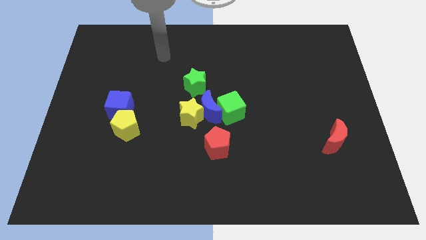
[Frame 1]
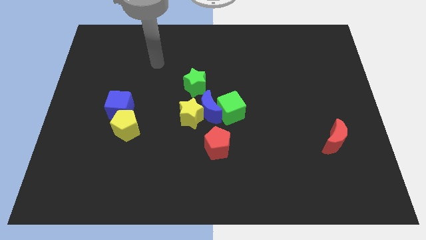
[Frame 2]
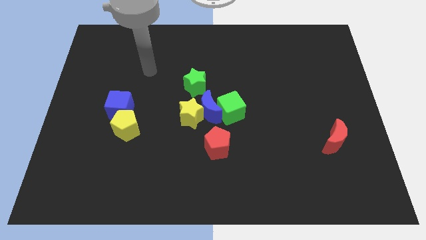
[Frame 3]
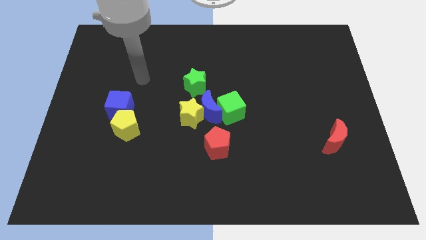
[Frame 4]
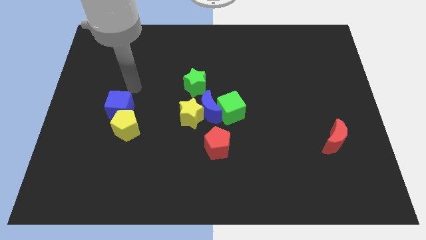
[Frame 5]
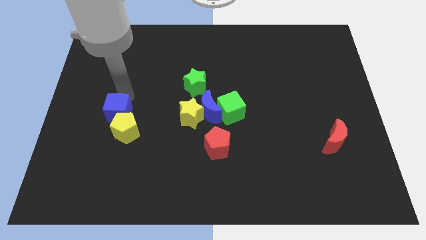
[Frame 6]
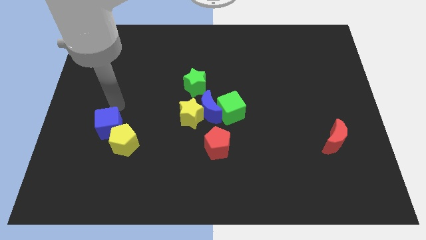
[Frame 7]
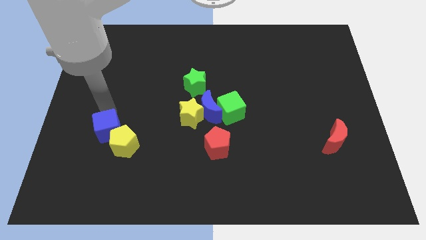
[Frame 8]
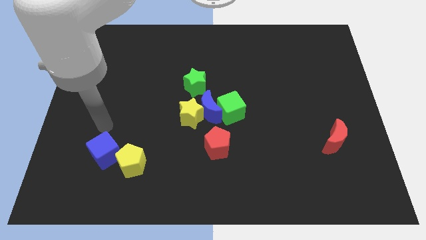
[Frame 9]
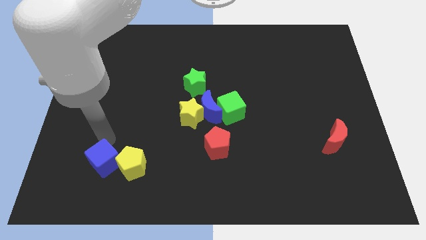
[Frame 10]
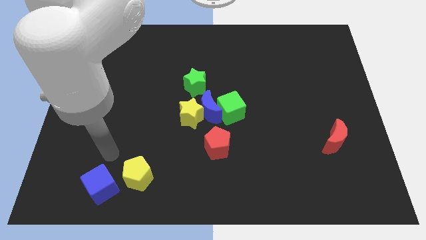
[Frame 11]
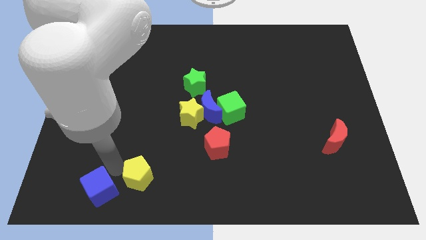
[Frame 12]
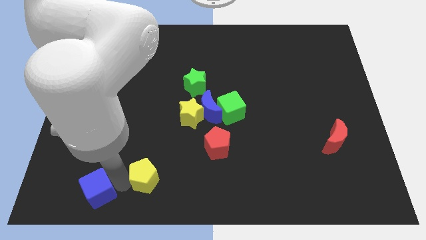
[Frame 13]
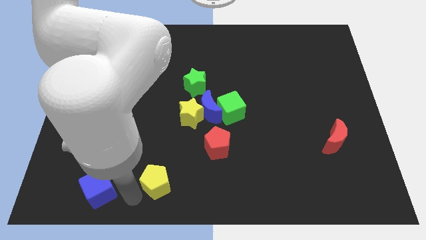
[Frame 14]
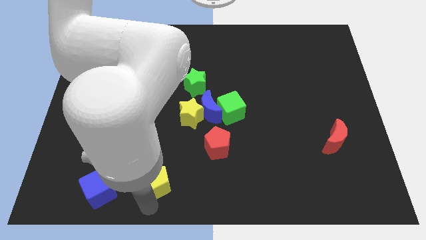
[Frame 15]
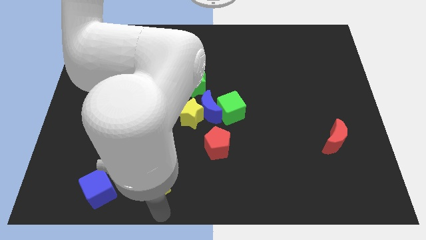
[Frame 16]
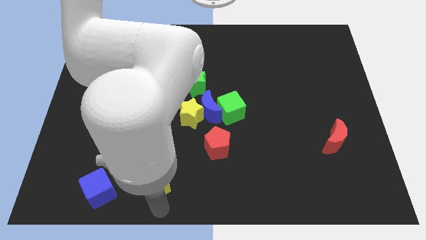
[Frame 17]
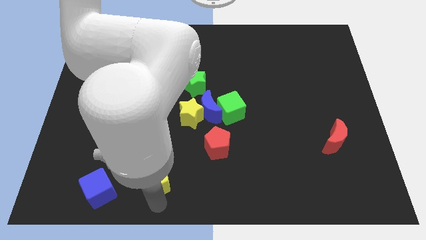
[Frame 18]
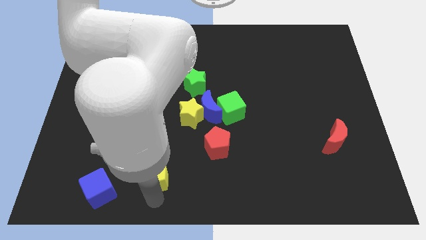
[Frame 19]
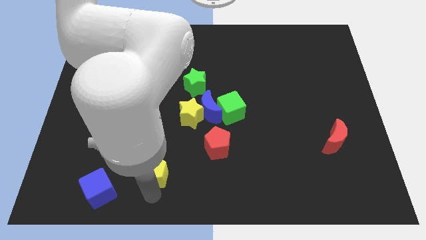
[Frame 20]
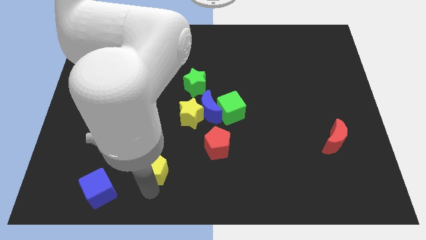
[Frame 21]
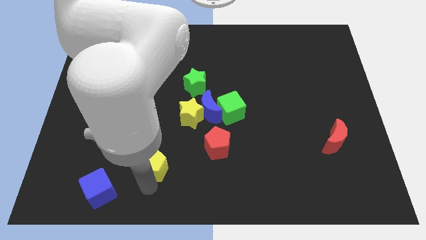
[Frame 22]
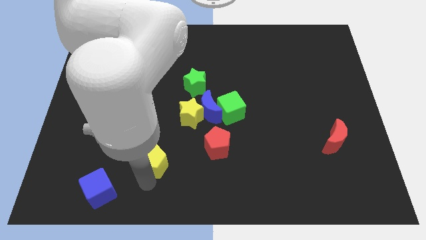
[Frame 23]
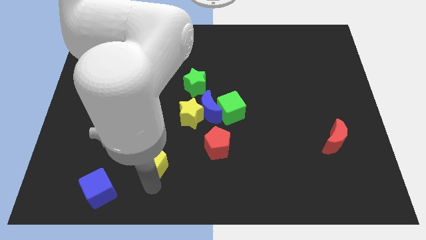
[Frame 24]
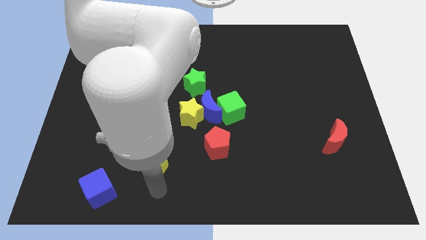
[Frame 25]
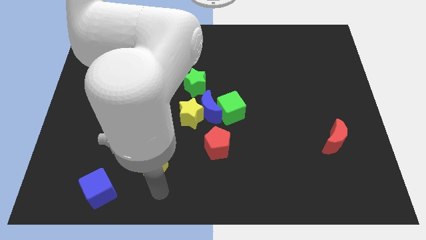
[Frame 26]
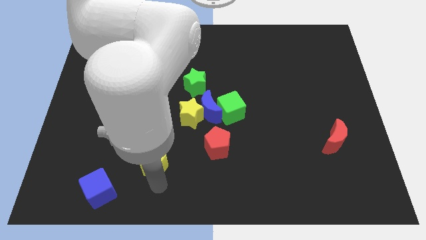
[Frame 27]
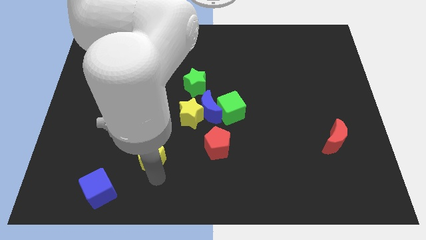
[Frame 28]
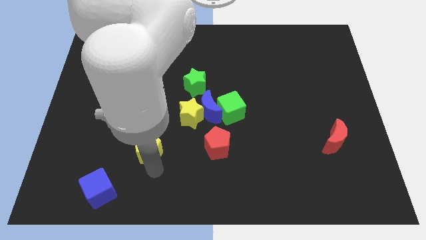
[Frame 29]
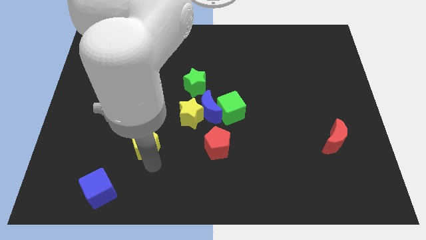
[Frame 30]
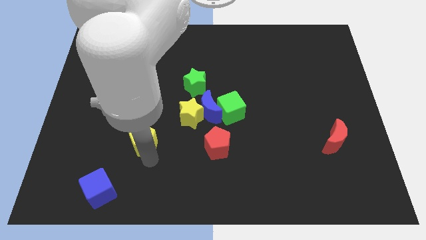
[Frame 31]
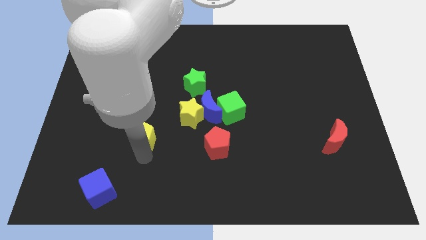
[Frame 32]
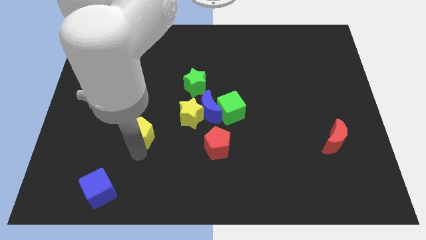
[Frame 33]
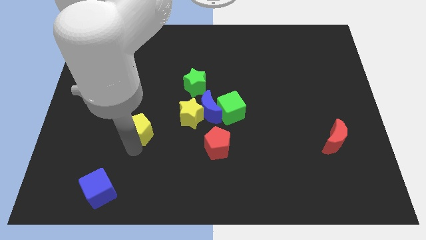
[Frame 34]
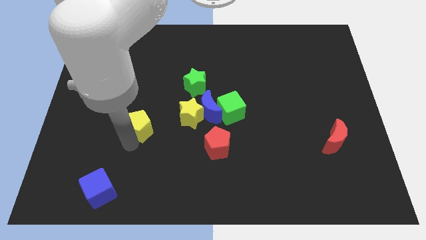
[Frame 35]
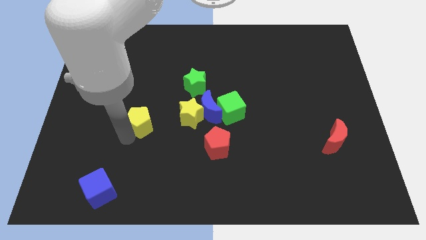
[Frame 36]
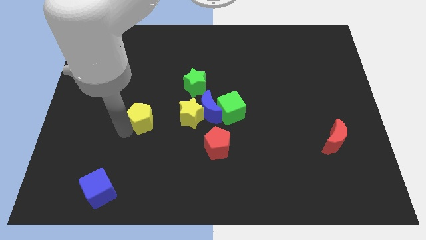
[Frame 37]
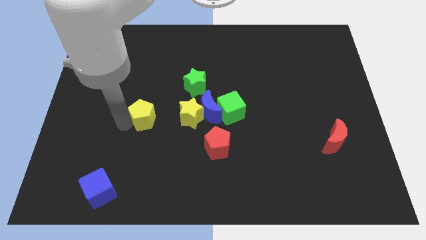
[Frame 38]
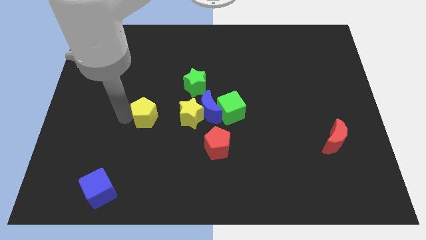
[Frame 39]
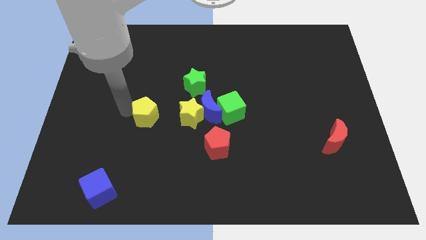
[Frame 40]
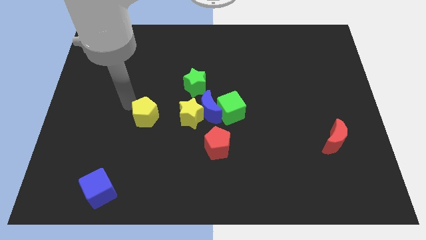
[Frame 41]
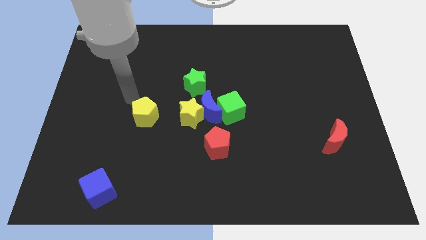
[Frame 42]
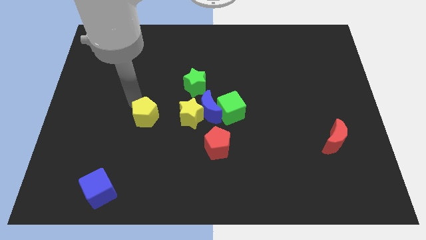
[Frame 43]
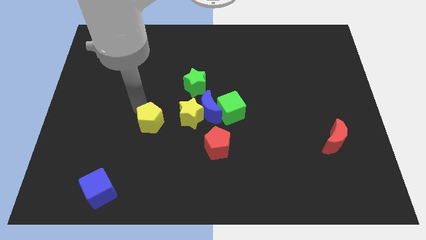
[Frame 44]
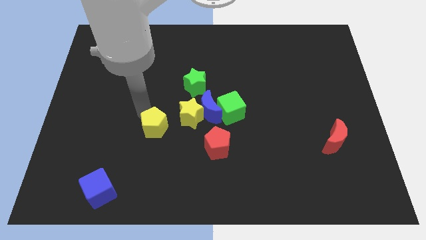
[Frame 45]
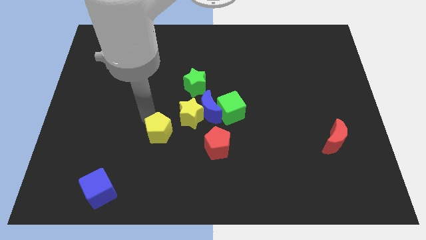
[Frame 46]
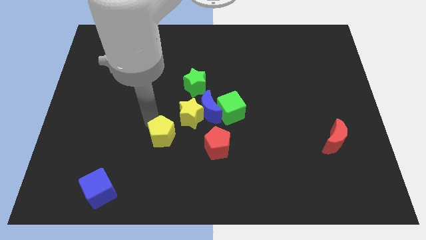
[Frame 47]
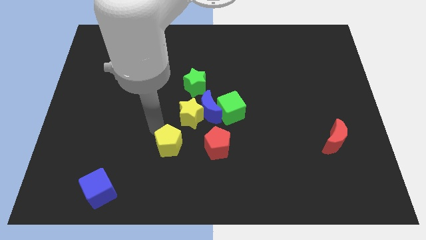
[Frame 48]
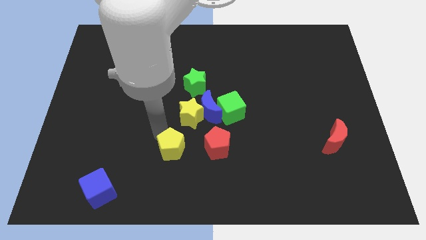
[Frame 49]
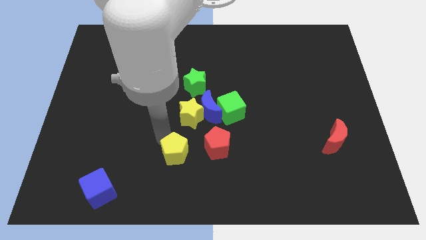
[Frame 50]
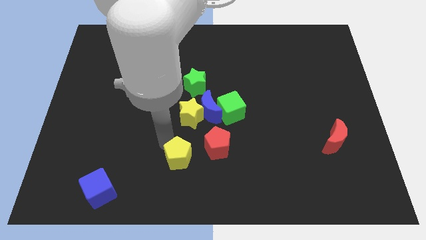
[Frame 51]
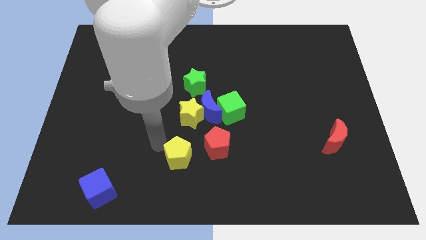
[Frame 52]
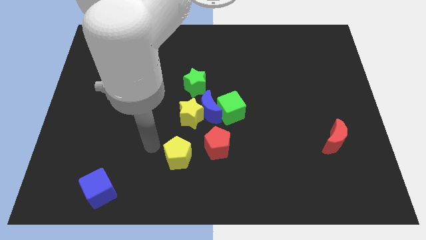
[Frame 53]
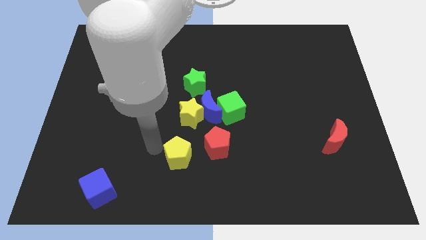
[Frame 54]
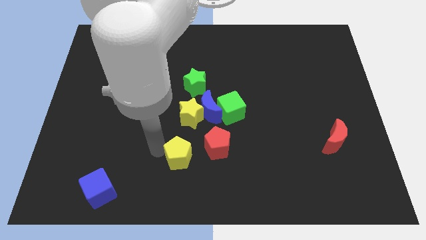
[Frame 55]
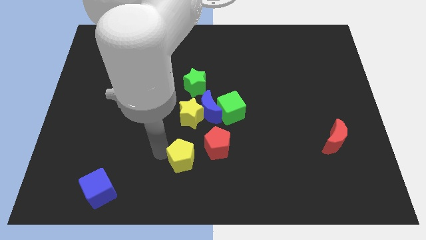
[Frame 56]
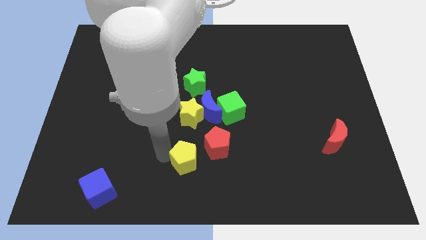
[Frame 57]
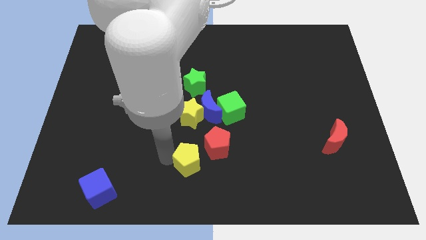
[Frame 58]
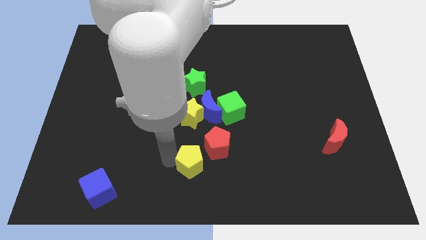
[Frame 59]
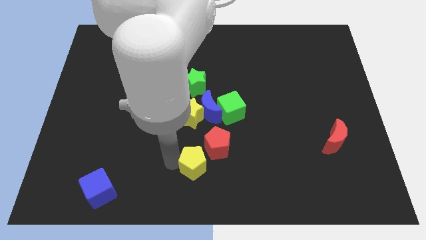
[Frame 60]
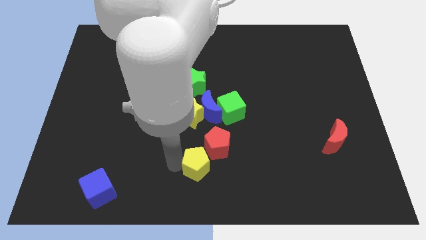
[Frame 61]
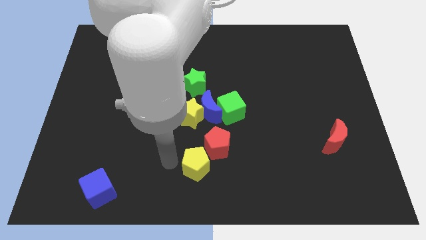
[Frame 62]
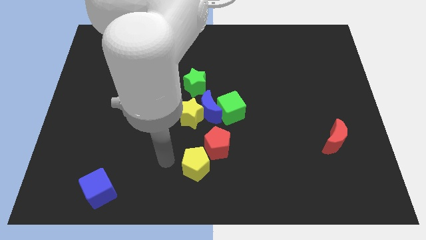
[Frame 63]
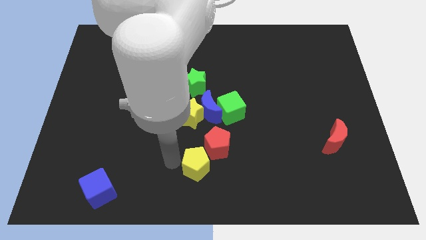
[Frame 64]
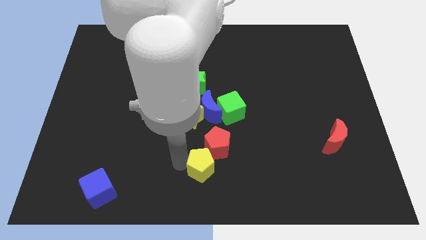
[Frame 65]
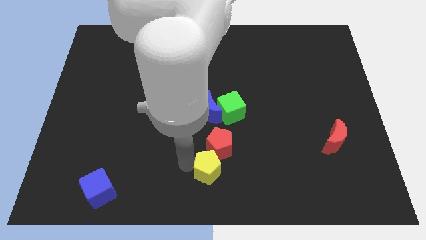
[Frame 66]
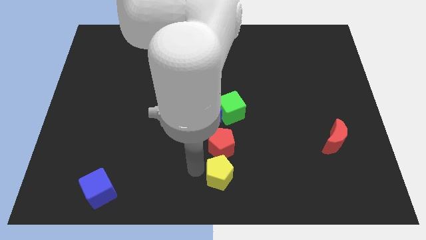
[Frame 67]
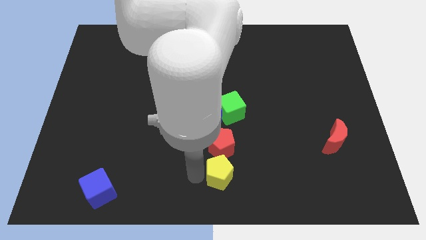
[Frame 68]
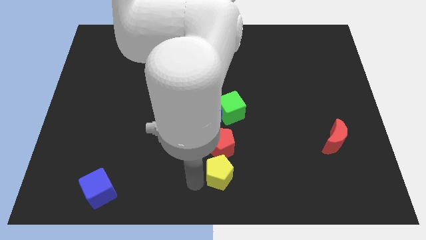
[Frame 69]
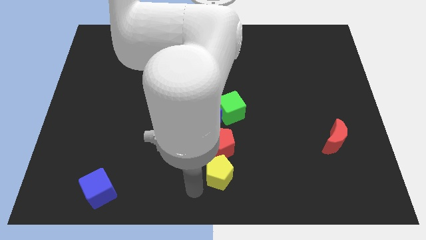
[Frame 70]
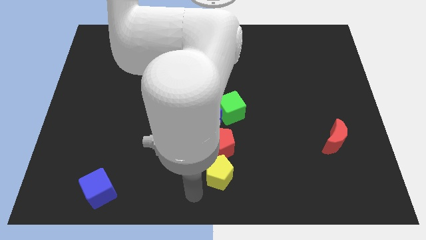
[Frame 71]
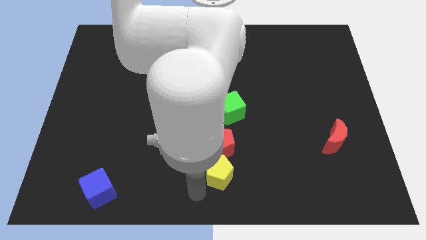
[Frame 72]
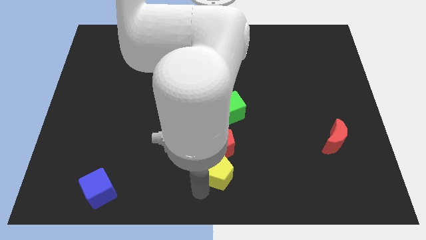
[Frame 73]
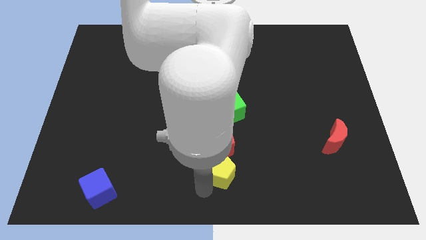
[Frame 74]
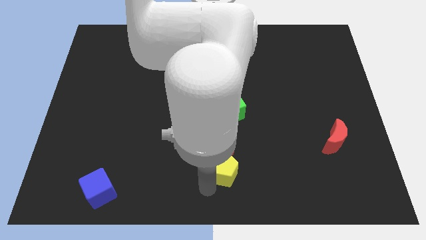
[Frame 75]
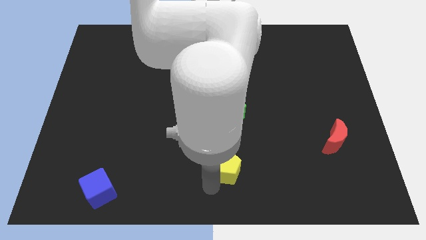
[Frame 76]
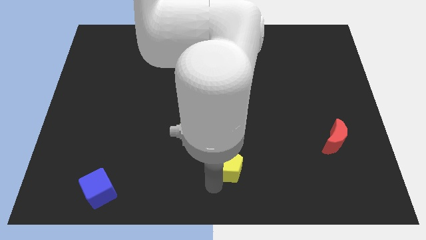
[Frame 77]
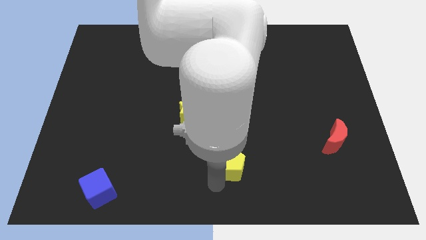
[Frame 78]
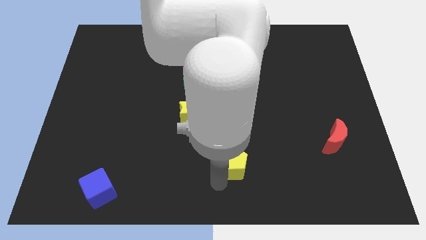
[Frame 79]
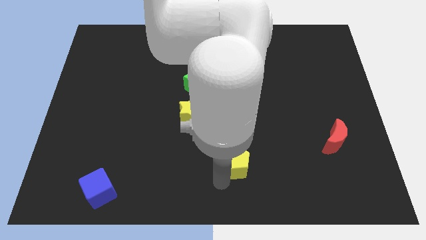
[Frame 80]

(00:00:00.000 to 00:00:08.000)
move the yellow pentagon right

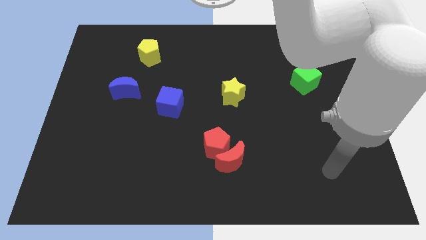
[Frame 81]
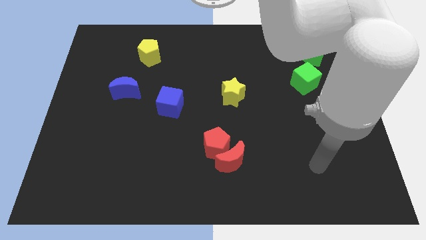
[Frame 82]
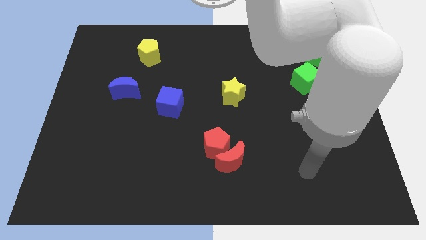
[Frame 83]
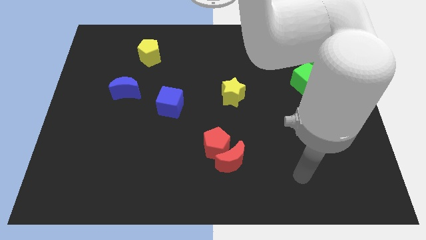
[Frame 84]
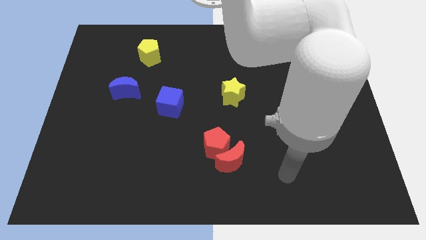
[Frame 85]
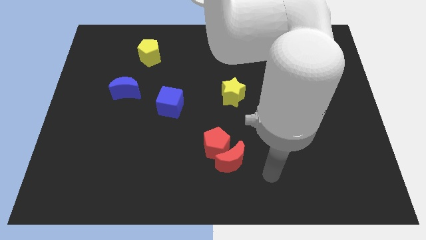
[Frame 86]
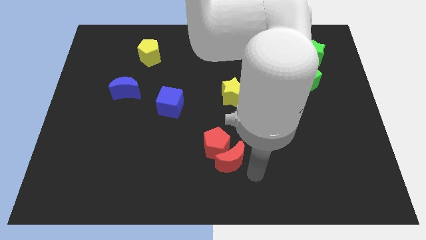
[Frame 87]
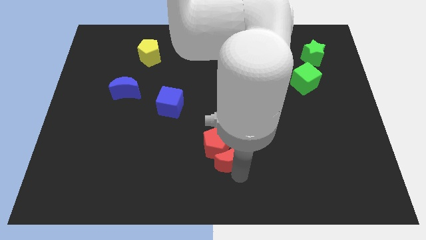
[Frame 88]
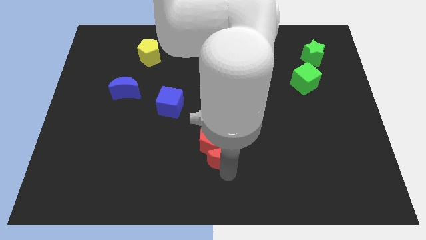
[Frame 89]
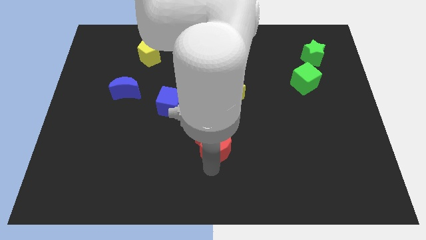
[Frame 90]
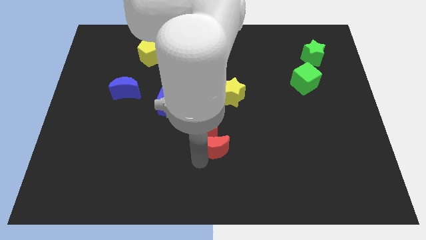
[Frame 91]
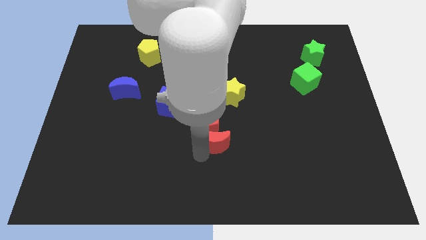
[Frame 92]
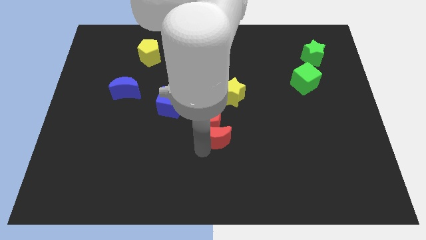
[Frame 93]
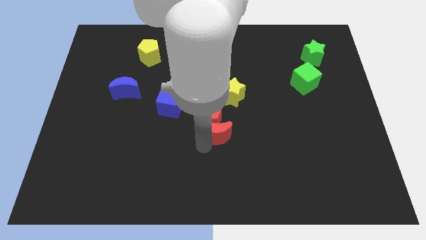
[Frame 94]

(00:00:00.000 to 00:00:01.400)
slide the red pentagon a little bit upwards
